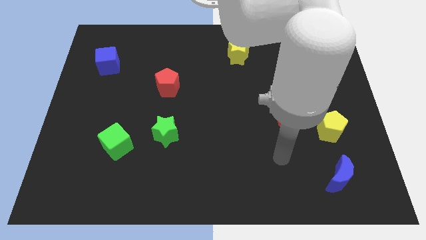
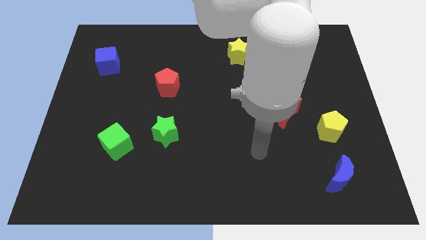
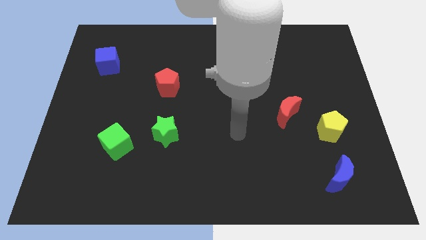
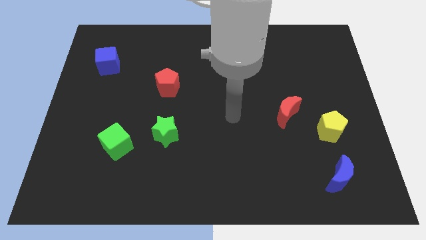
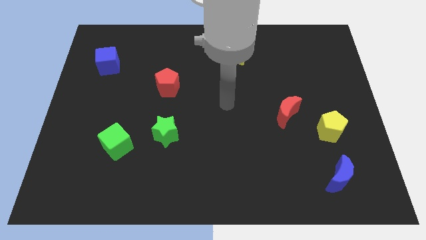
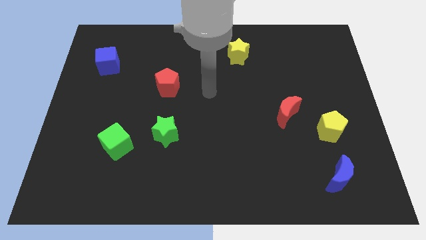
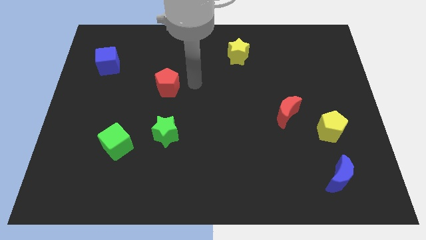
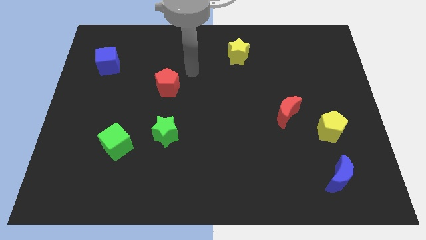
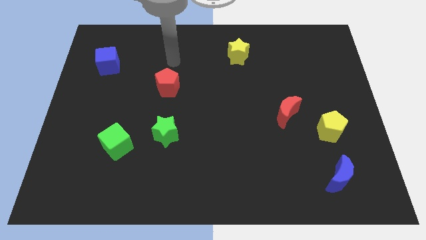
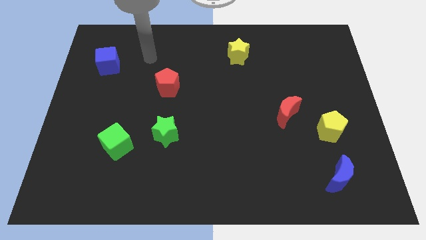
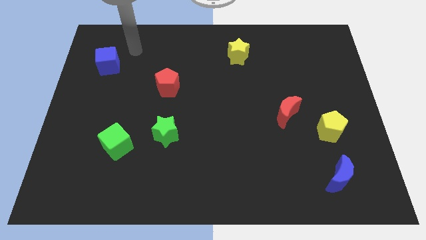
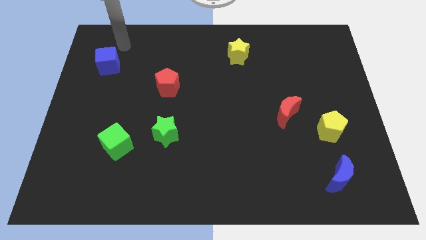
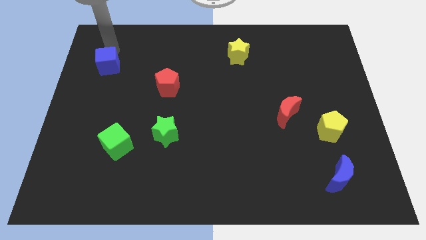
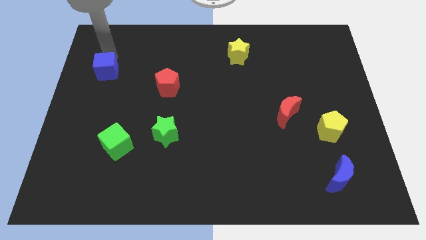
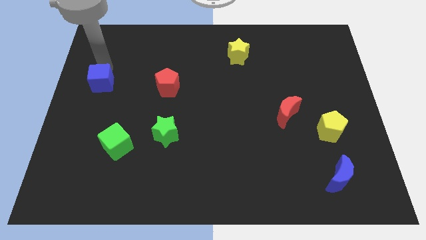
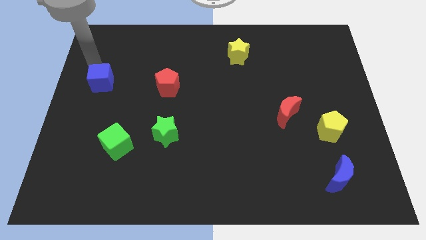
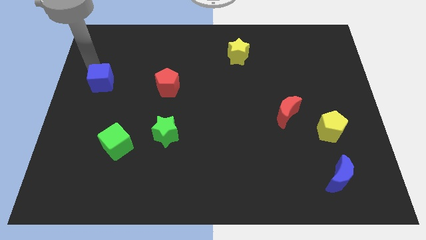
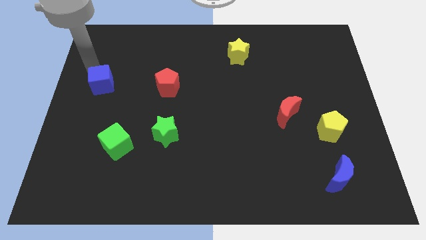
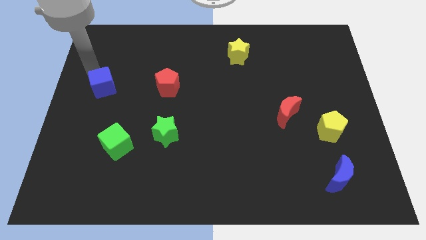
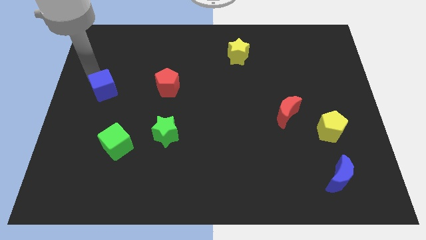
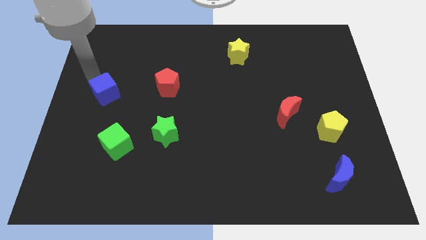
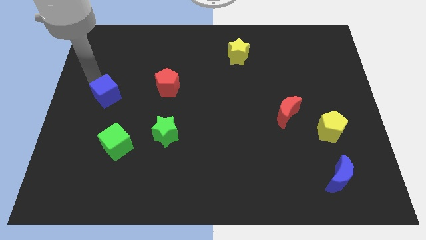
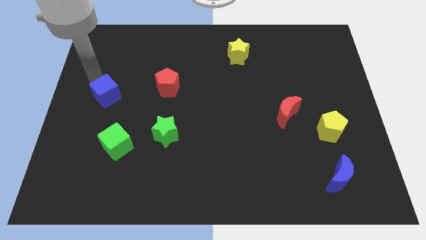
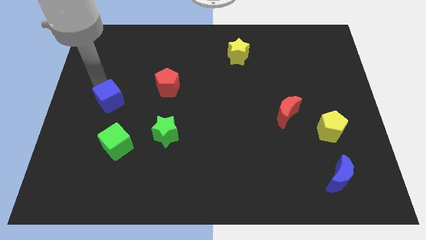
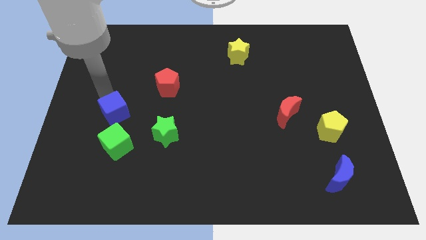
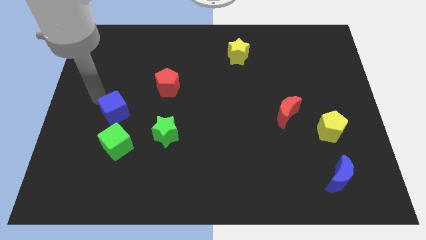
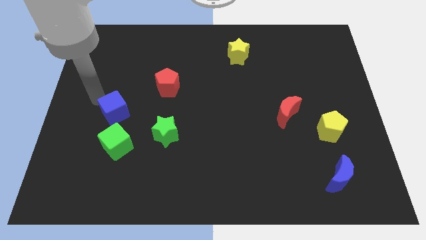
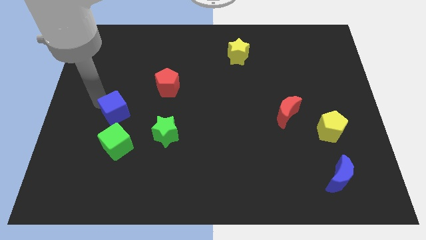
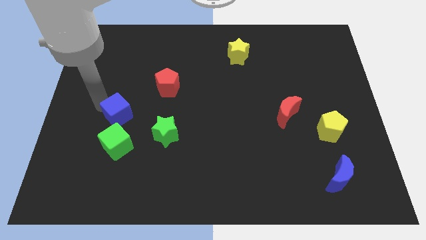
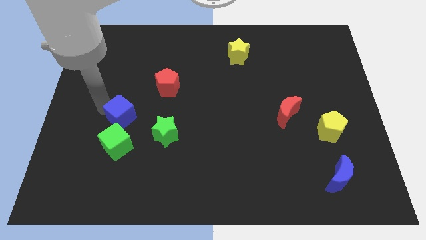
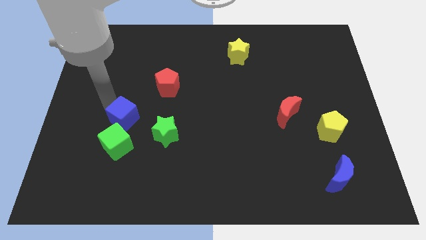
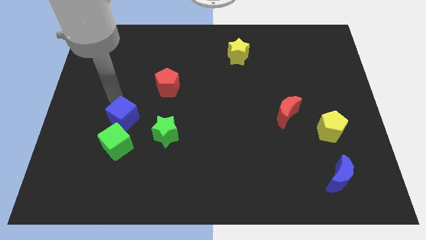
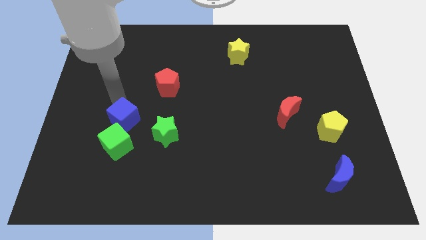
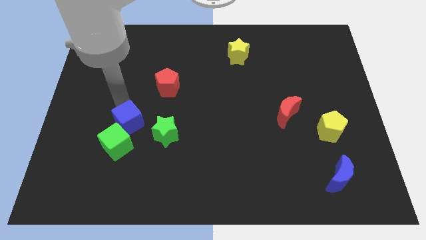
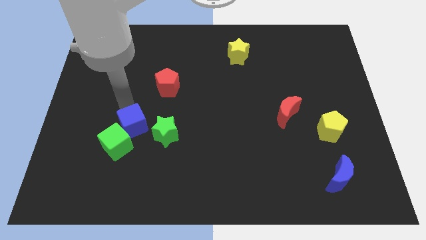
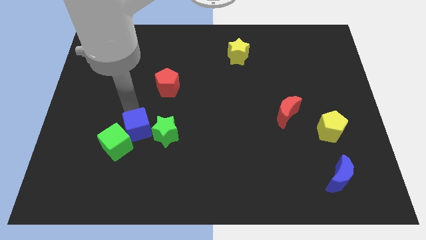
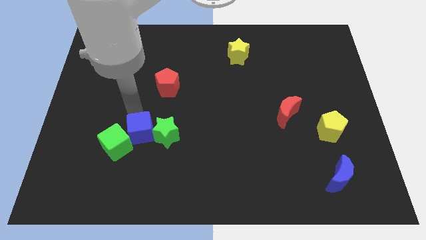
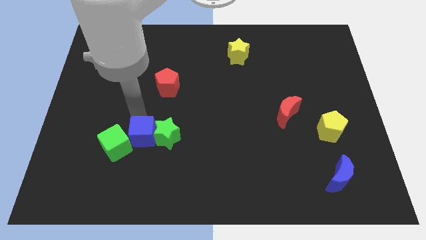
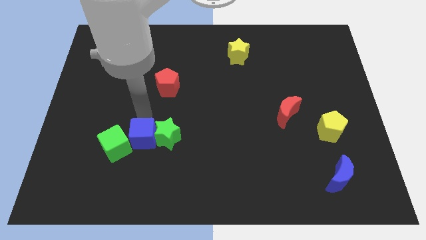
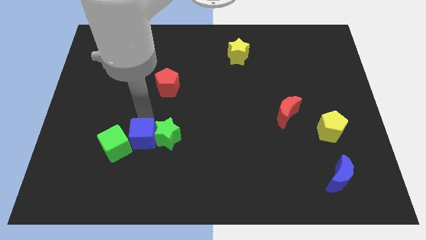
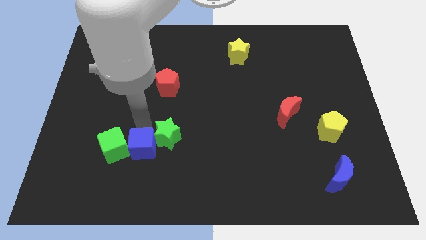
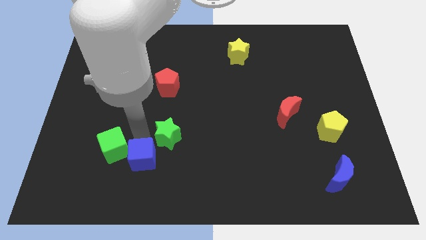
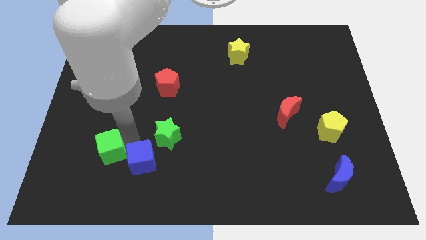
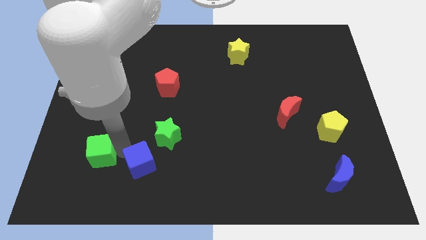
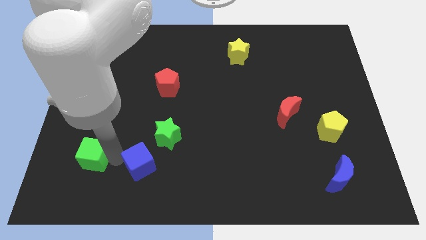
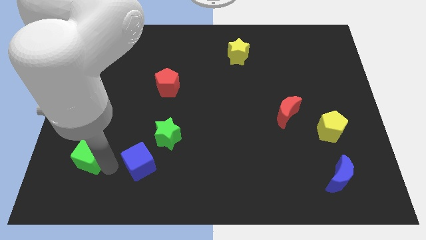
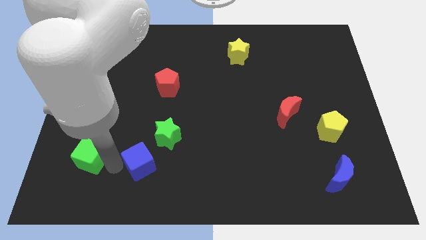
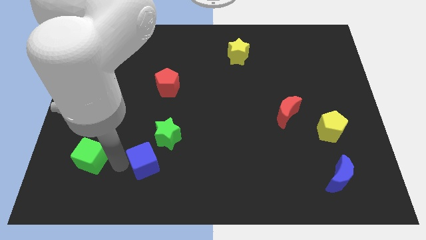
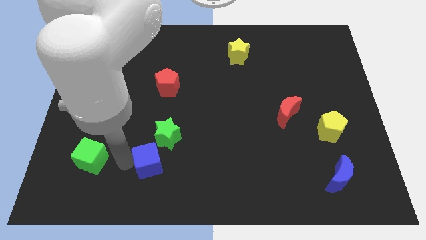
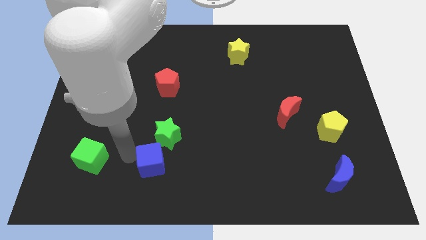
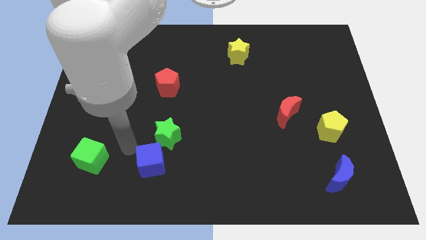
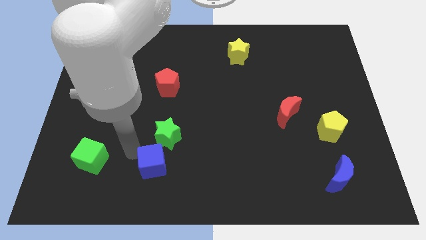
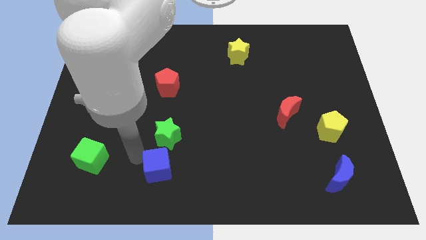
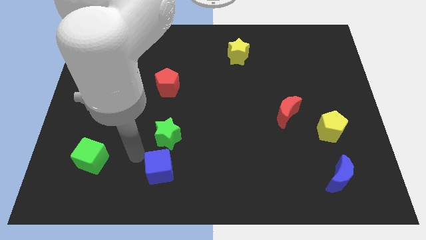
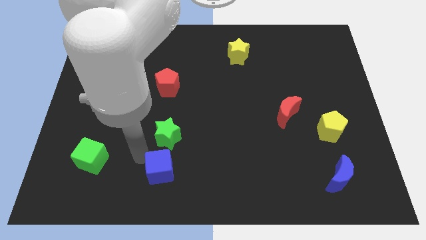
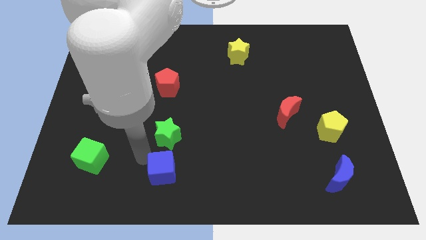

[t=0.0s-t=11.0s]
slide the blue cube to the bottom
